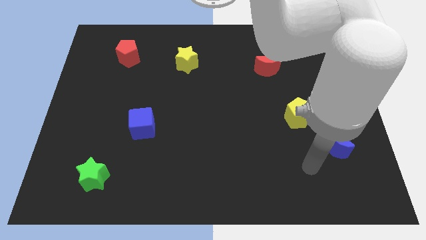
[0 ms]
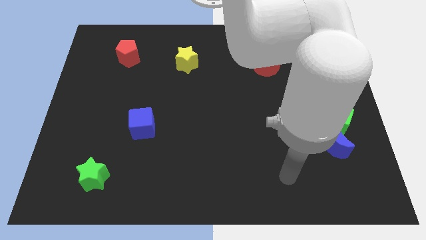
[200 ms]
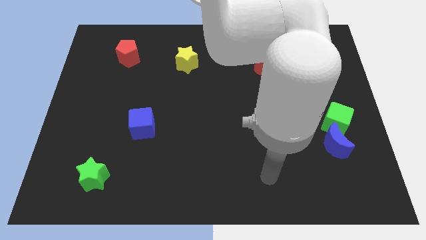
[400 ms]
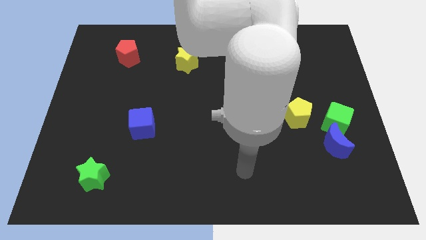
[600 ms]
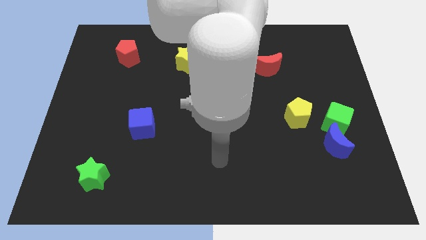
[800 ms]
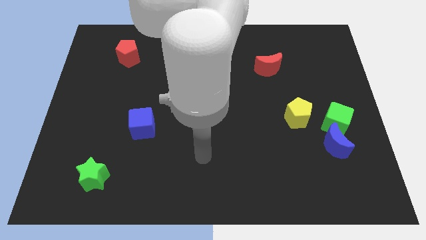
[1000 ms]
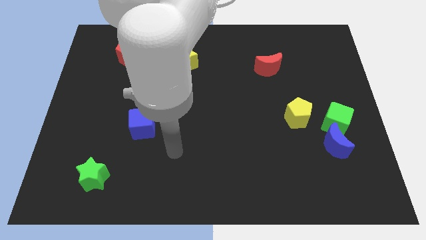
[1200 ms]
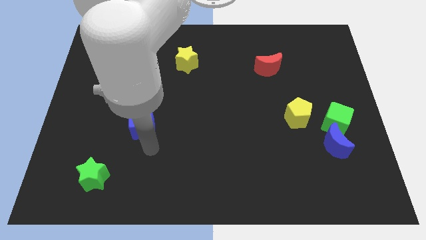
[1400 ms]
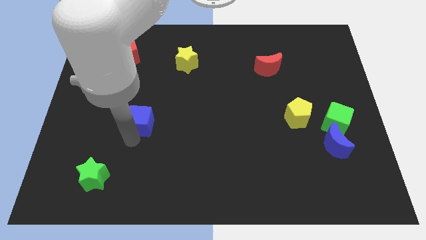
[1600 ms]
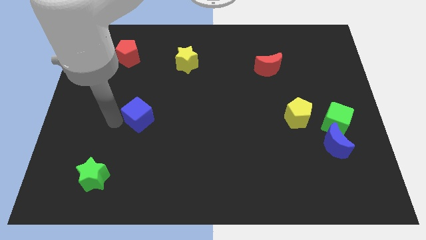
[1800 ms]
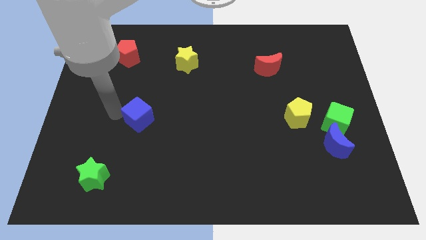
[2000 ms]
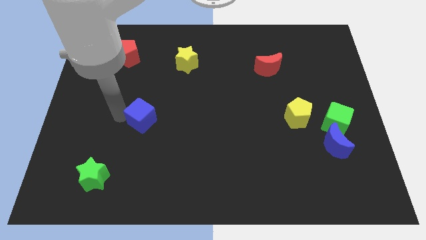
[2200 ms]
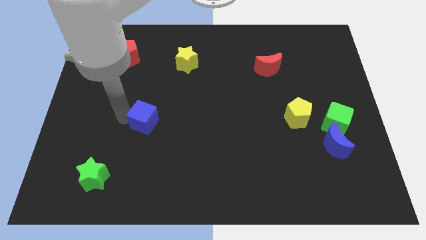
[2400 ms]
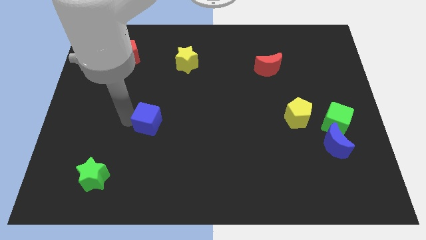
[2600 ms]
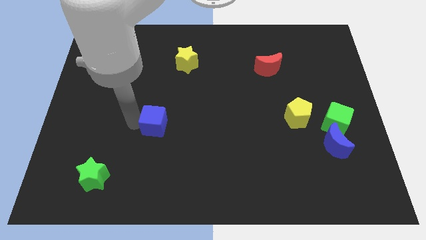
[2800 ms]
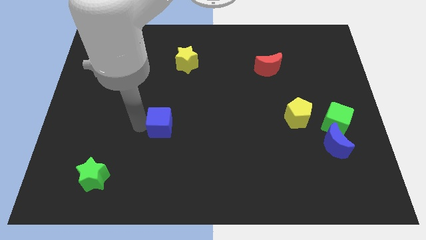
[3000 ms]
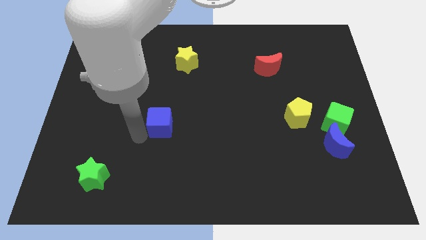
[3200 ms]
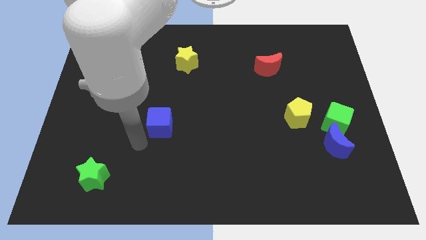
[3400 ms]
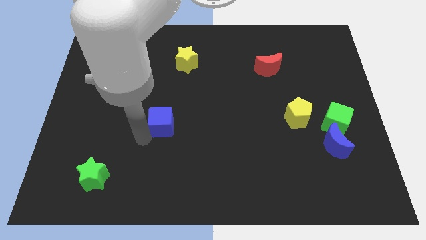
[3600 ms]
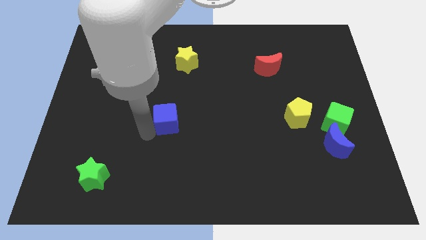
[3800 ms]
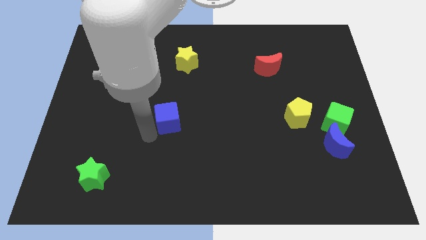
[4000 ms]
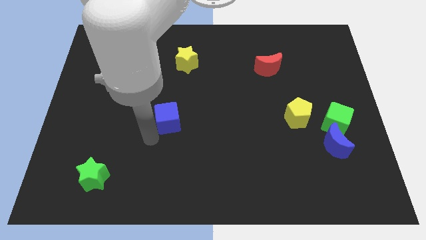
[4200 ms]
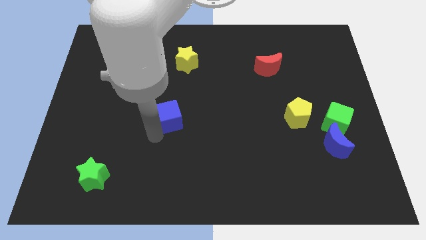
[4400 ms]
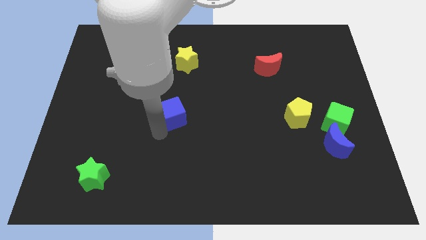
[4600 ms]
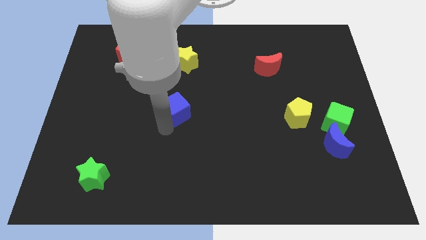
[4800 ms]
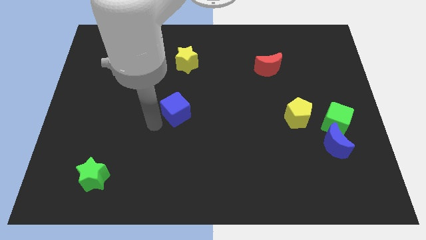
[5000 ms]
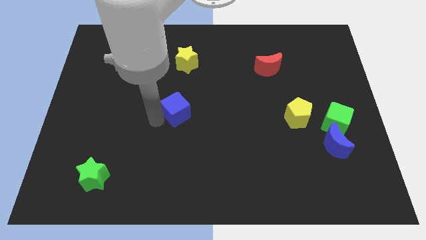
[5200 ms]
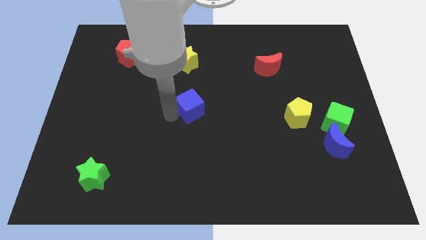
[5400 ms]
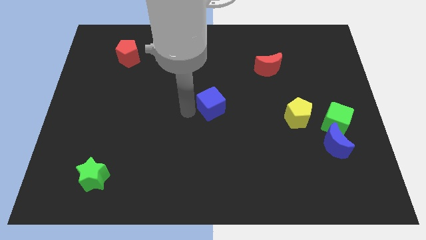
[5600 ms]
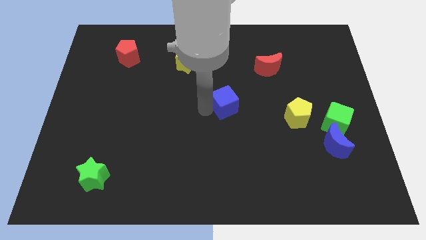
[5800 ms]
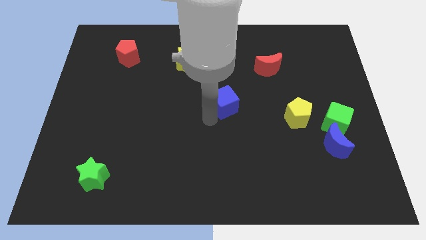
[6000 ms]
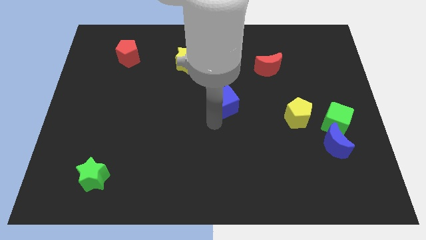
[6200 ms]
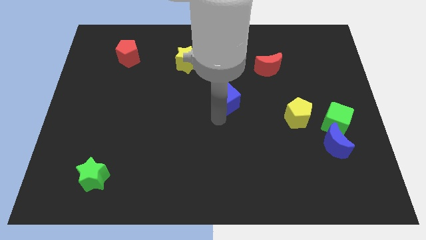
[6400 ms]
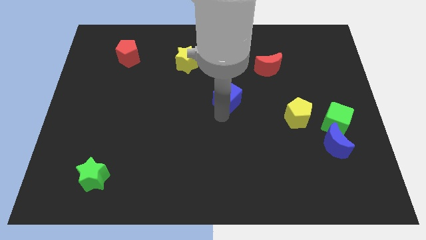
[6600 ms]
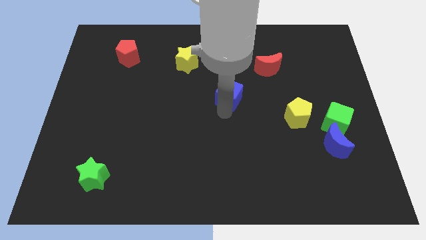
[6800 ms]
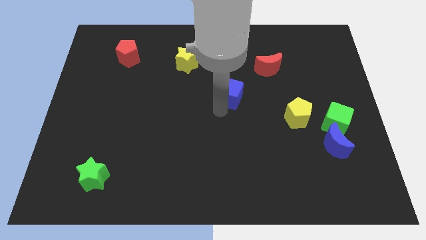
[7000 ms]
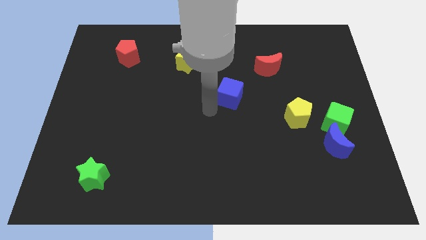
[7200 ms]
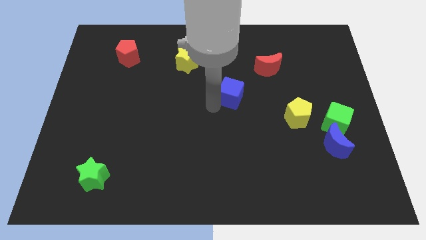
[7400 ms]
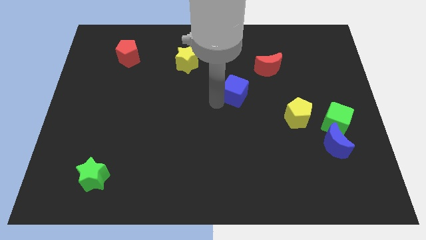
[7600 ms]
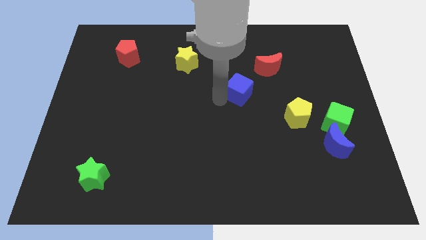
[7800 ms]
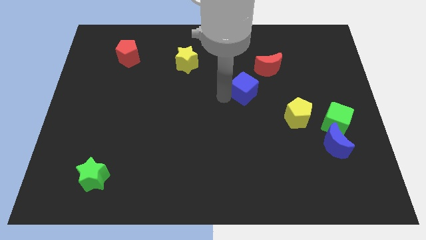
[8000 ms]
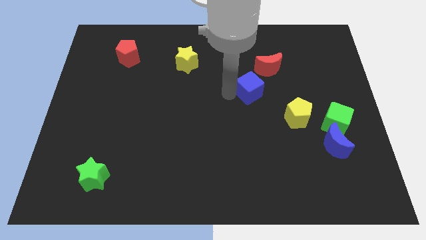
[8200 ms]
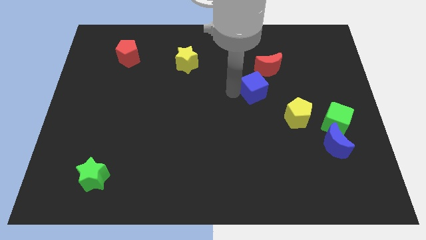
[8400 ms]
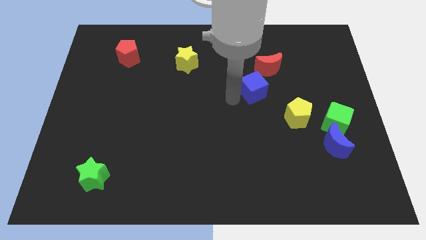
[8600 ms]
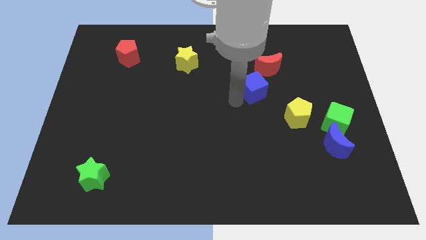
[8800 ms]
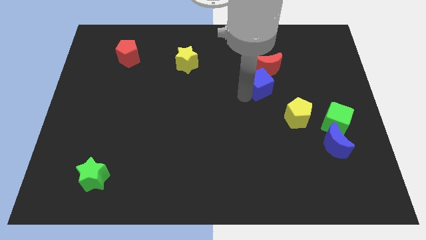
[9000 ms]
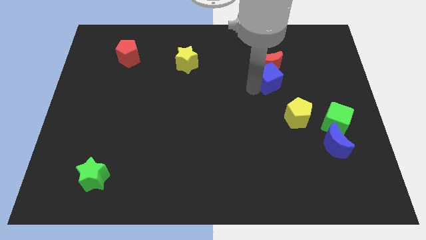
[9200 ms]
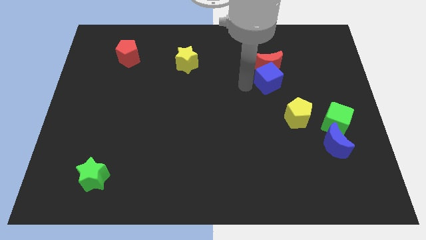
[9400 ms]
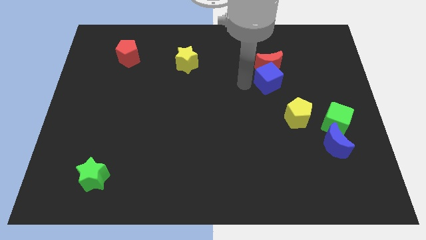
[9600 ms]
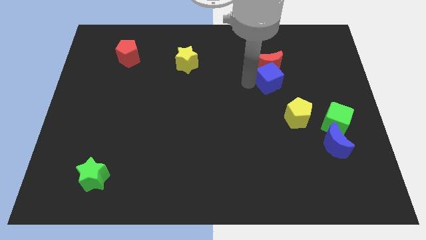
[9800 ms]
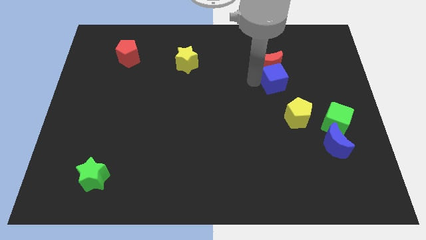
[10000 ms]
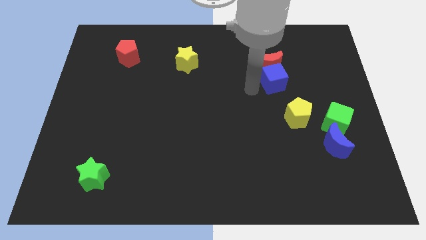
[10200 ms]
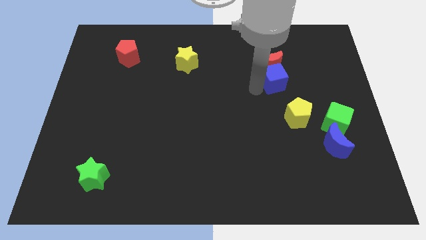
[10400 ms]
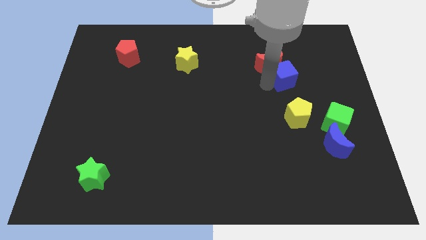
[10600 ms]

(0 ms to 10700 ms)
move the blue cube to the right side of the red moon

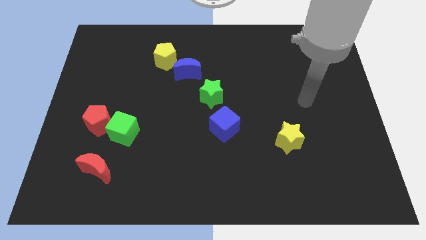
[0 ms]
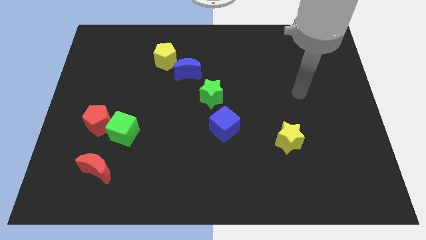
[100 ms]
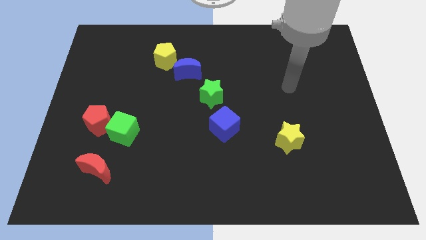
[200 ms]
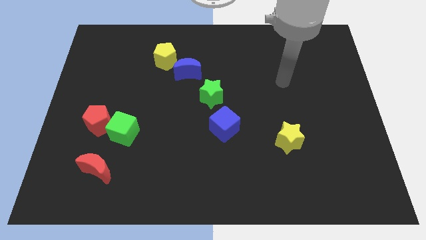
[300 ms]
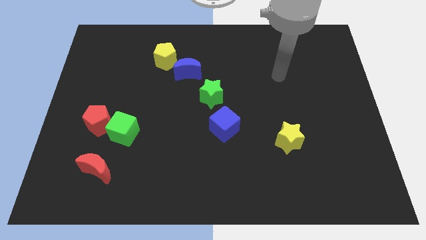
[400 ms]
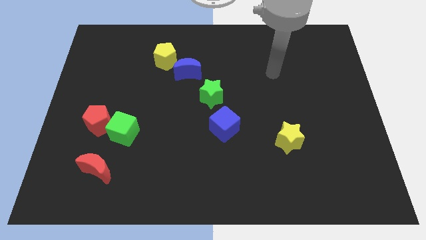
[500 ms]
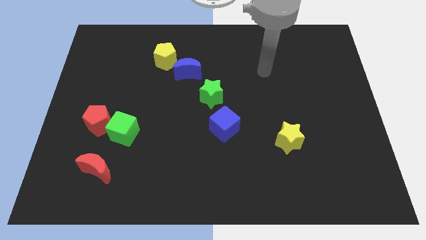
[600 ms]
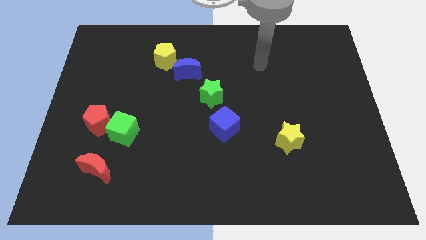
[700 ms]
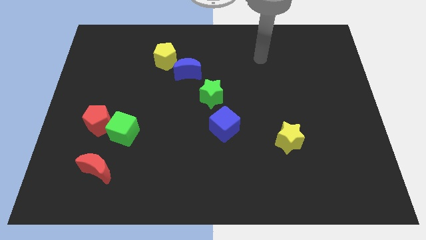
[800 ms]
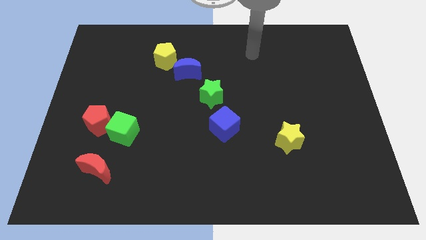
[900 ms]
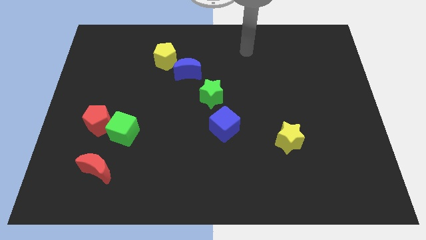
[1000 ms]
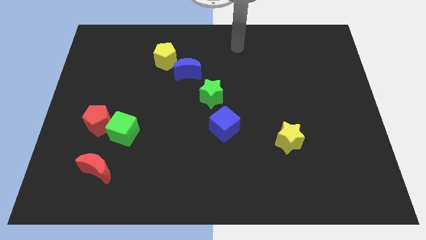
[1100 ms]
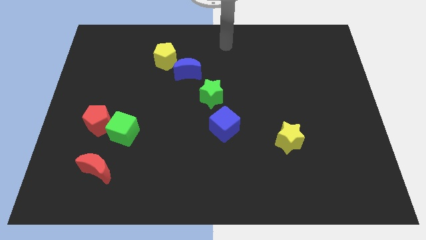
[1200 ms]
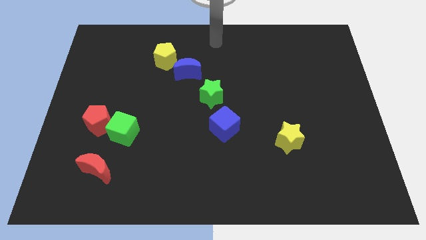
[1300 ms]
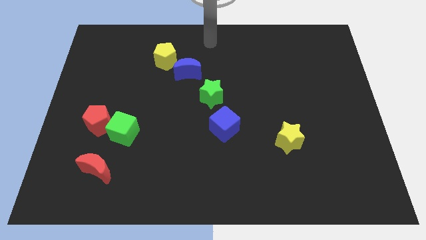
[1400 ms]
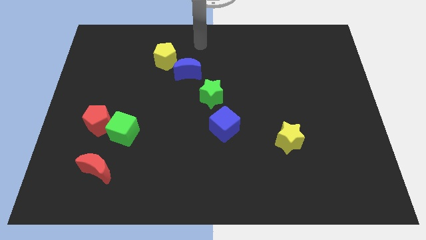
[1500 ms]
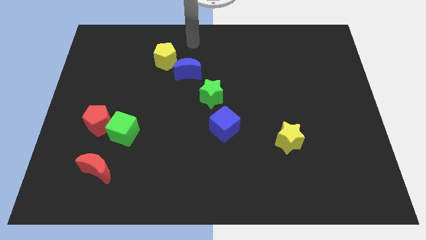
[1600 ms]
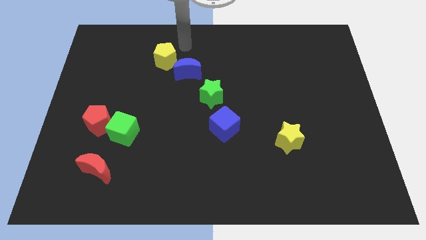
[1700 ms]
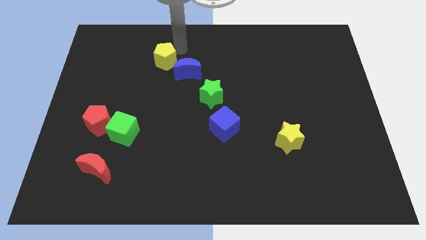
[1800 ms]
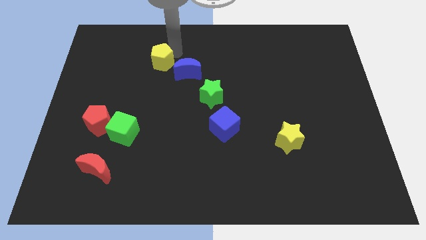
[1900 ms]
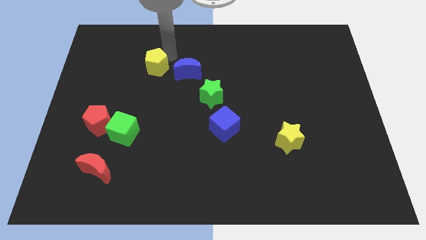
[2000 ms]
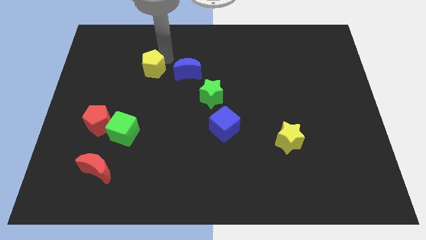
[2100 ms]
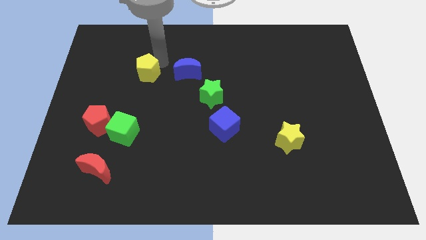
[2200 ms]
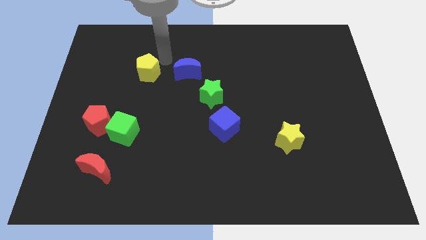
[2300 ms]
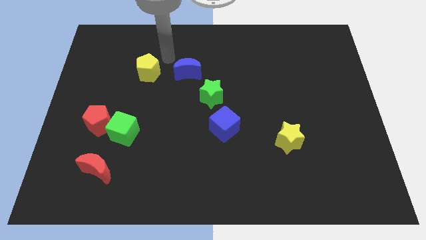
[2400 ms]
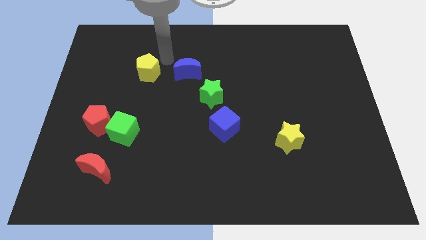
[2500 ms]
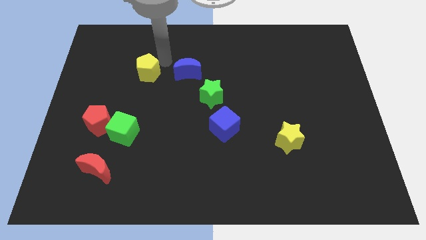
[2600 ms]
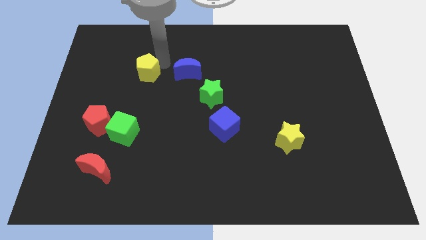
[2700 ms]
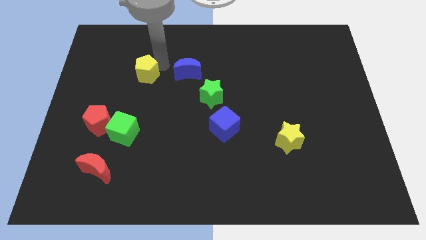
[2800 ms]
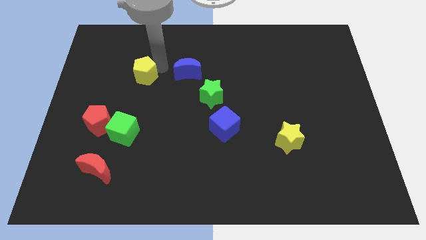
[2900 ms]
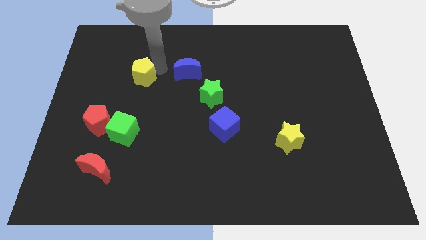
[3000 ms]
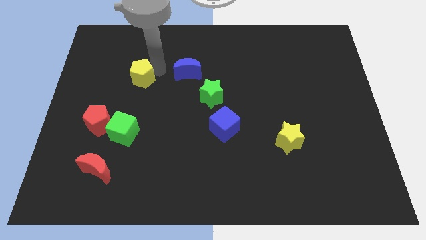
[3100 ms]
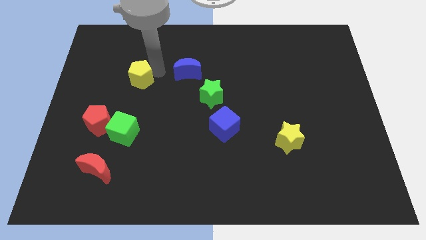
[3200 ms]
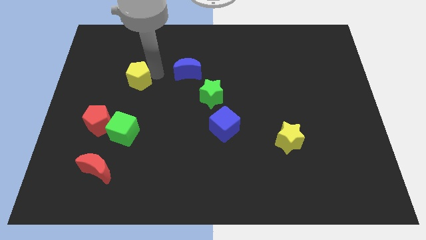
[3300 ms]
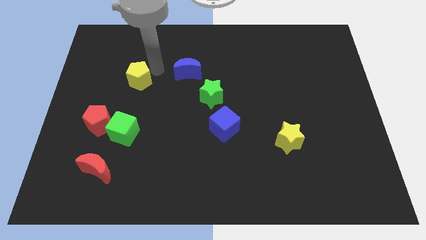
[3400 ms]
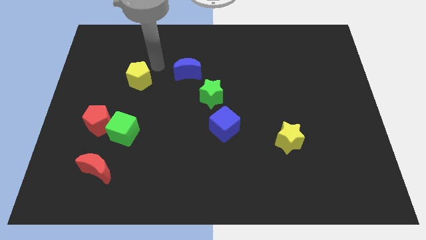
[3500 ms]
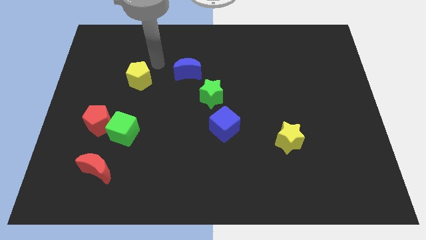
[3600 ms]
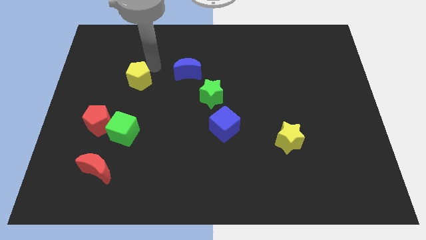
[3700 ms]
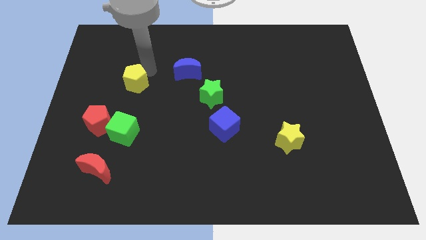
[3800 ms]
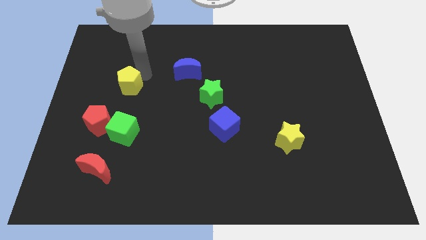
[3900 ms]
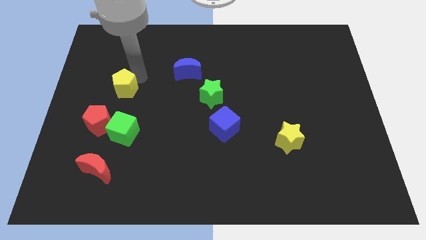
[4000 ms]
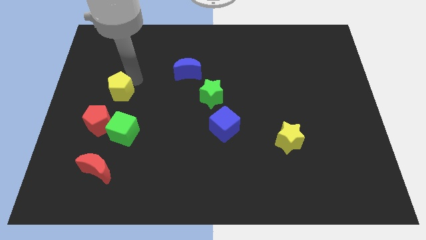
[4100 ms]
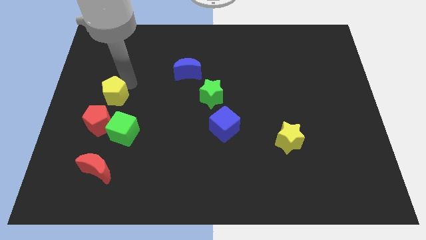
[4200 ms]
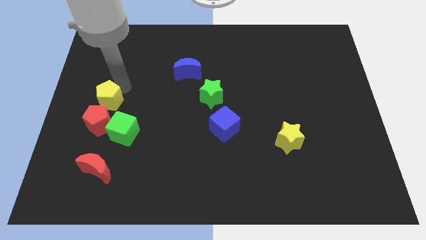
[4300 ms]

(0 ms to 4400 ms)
push the yellow pentagon to the top left side of the green cube
